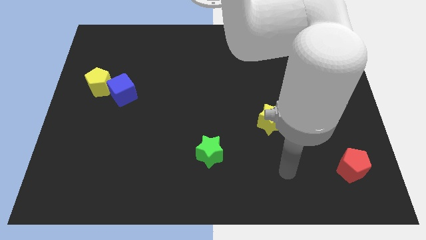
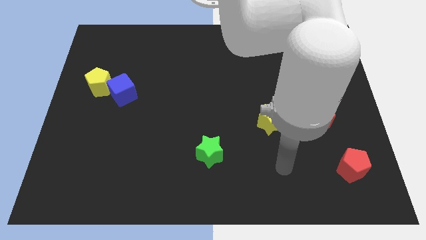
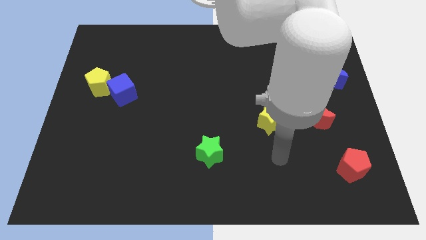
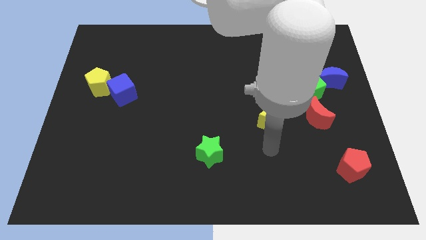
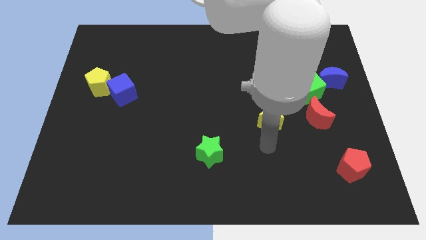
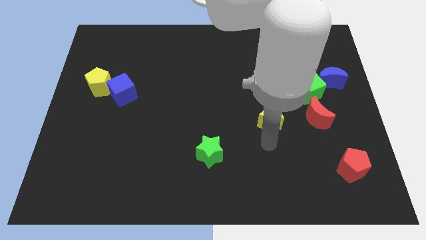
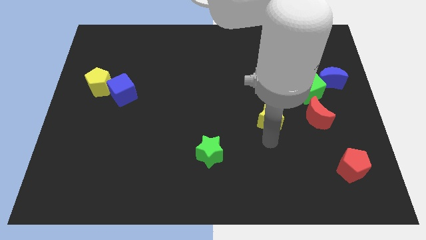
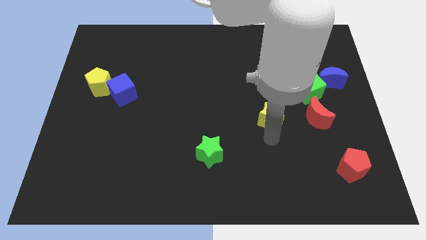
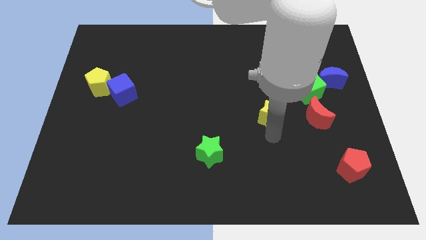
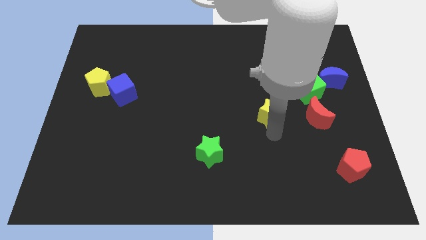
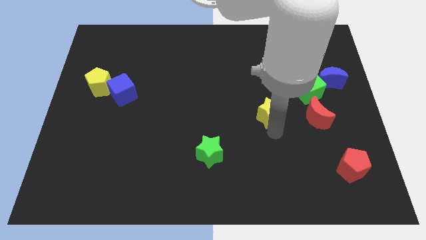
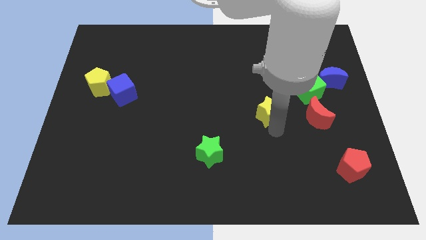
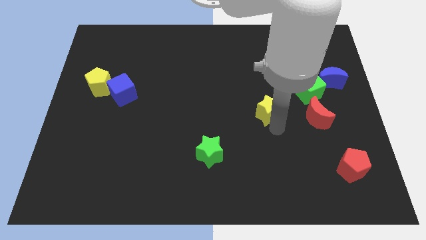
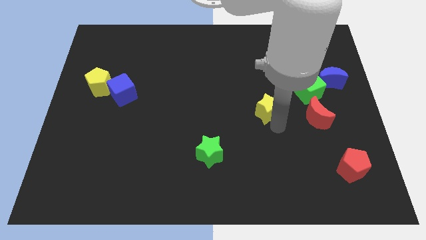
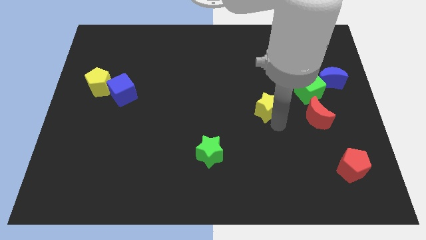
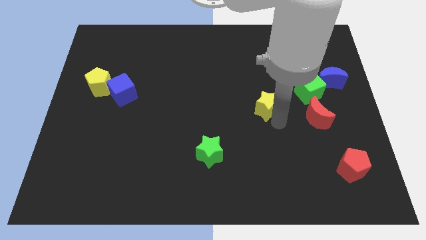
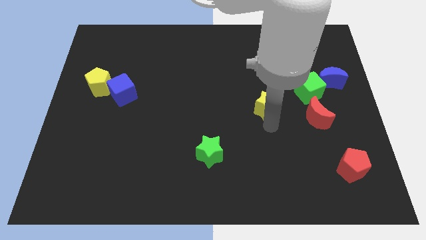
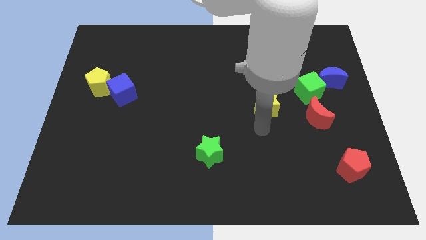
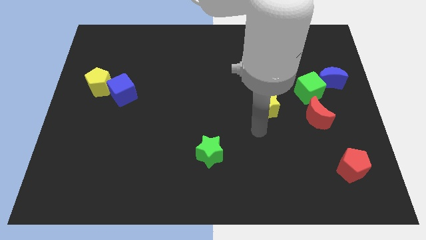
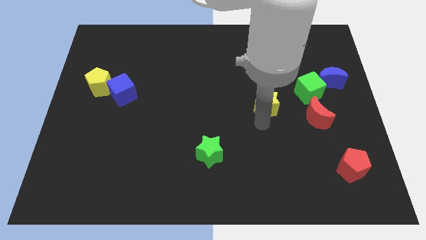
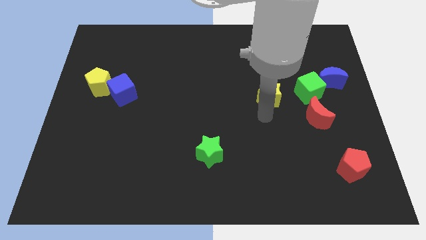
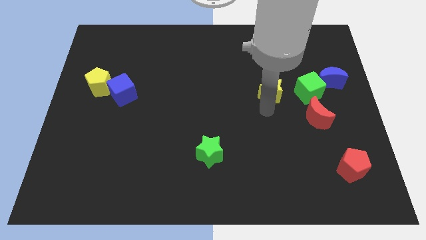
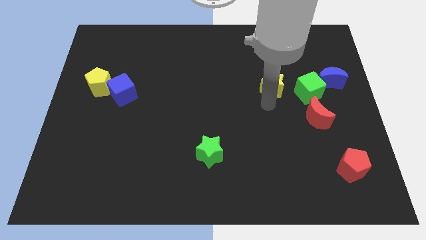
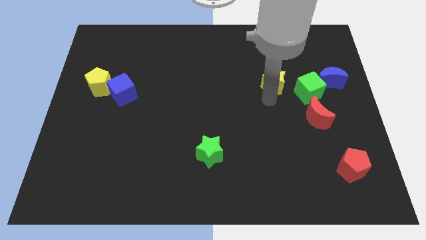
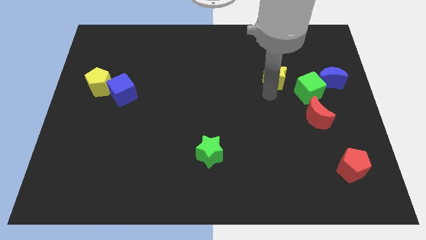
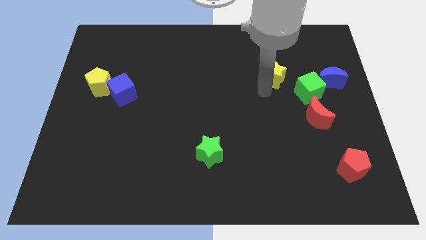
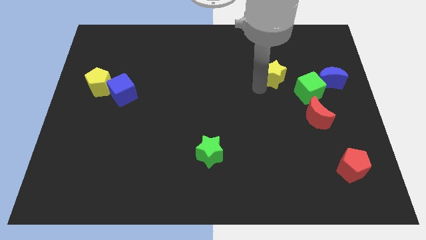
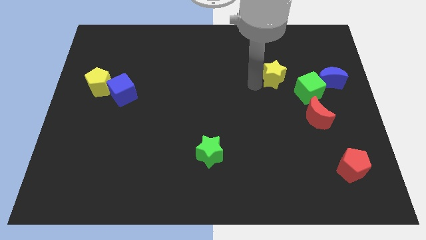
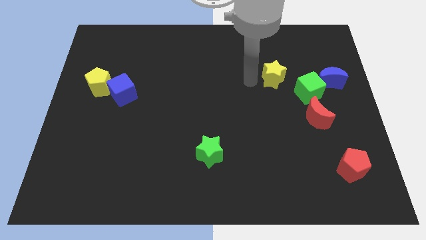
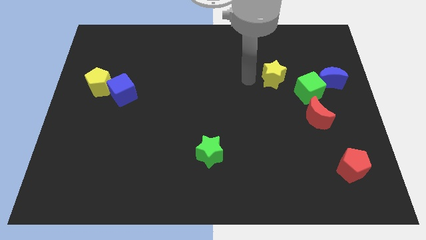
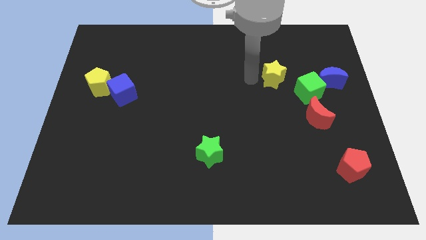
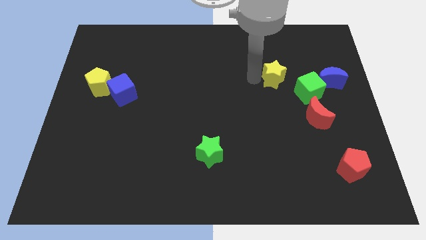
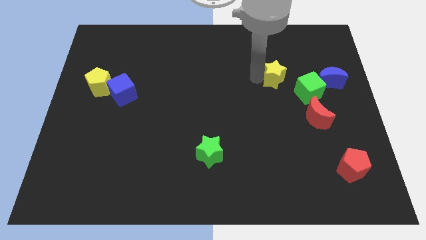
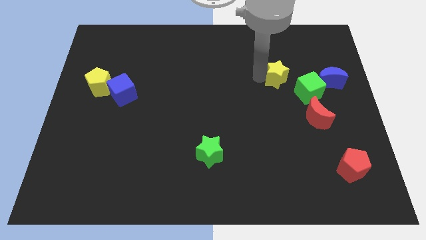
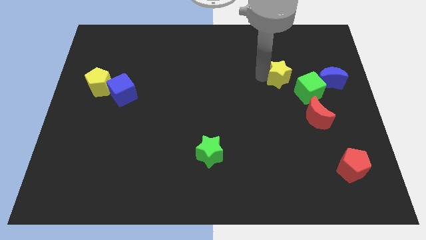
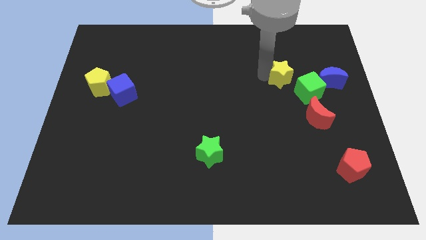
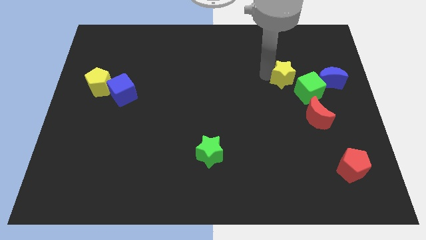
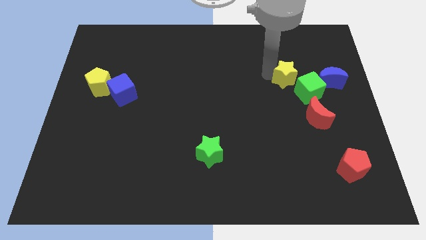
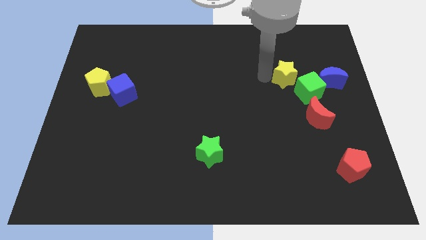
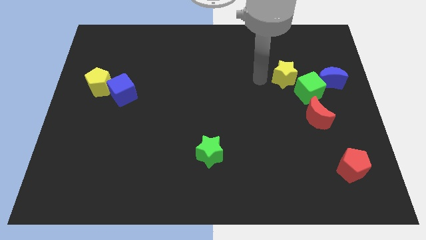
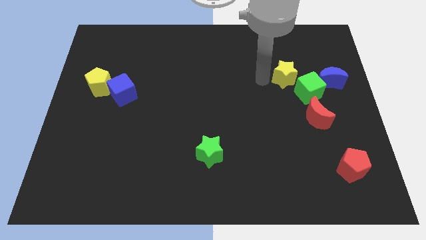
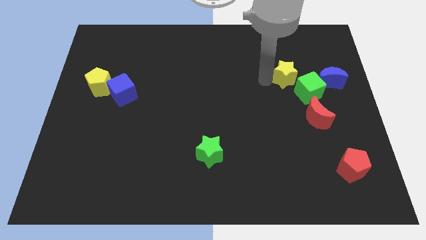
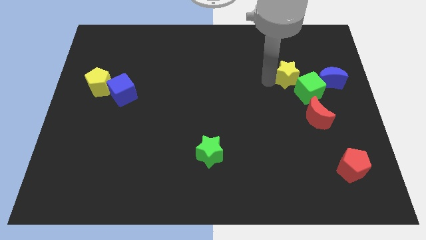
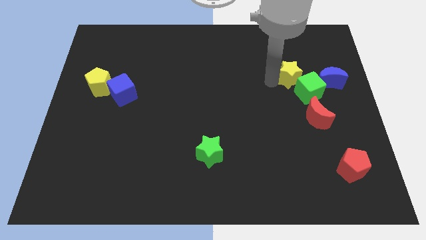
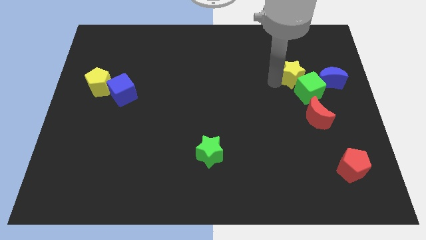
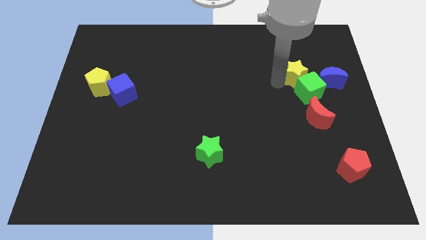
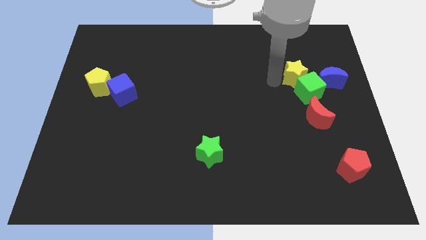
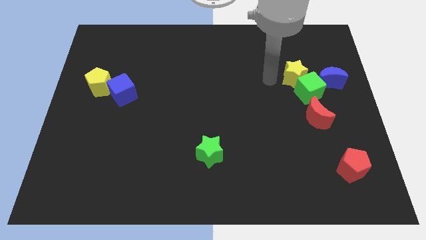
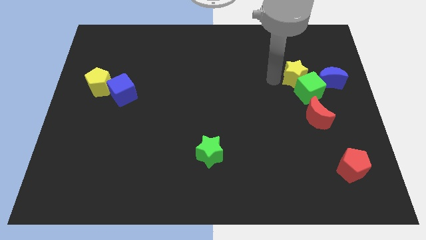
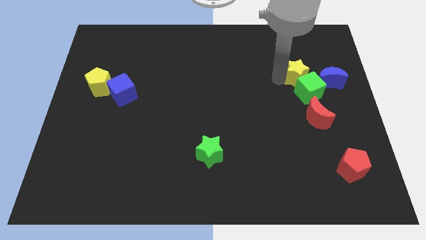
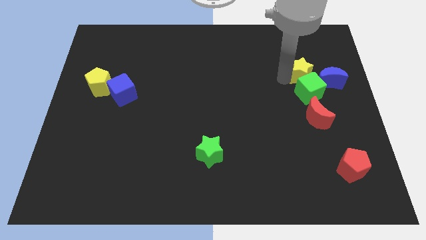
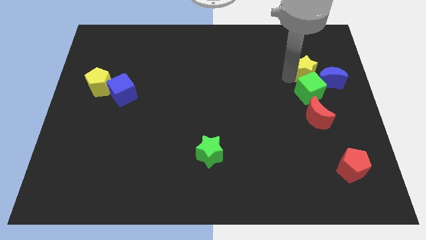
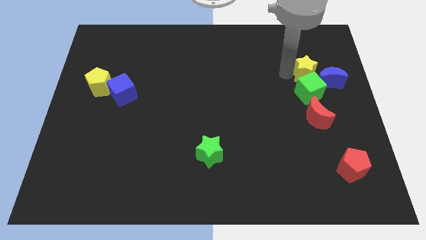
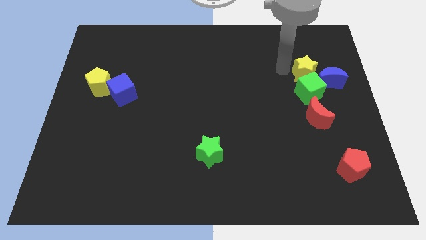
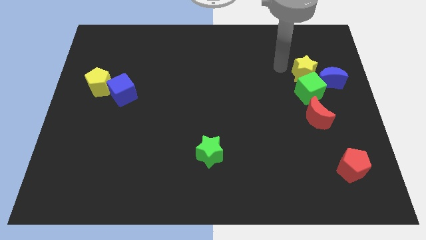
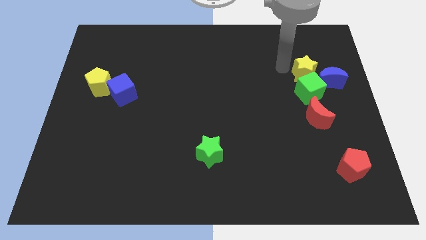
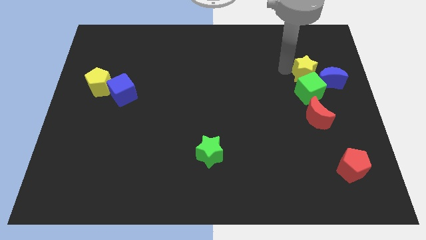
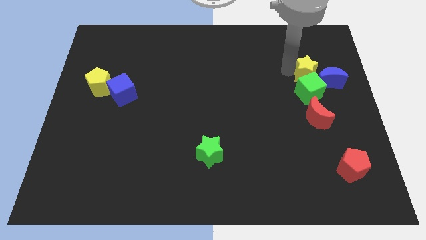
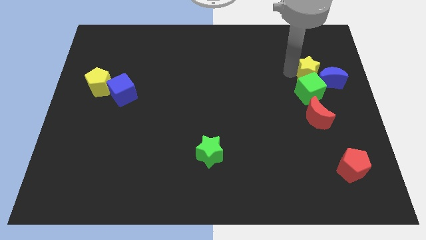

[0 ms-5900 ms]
put the yellow star next to the blue moon
